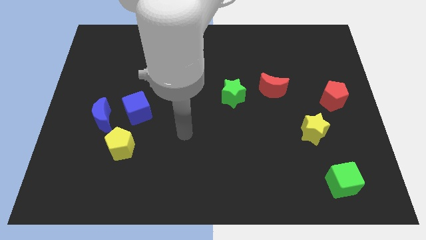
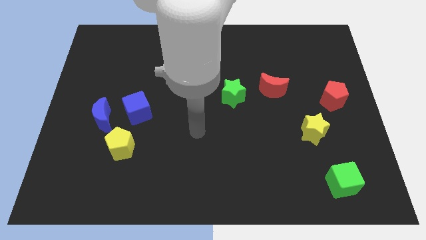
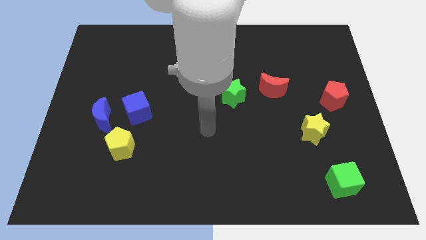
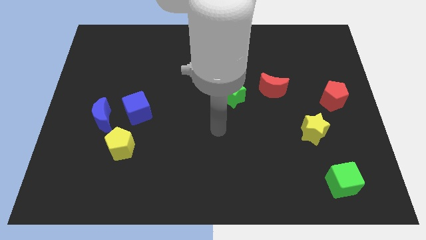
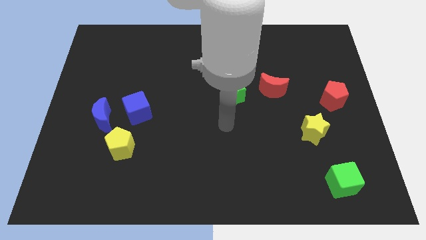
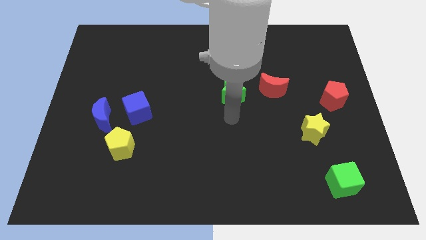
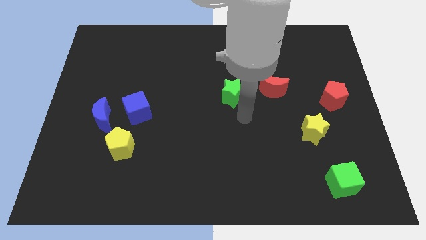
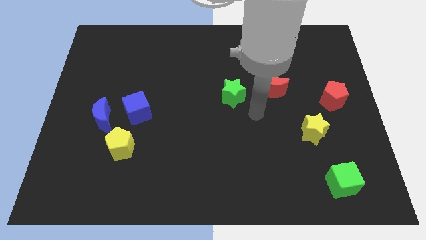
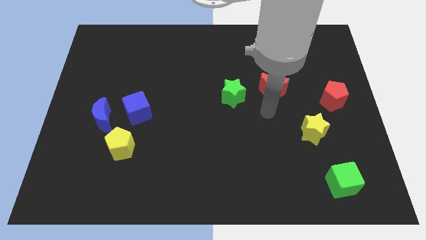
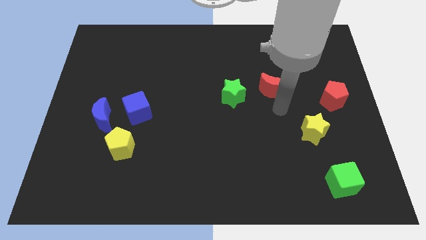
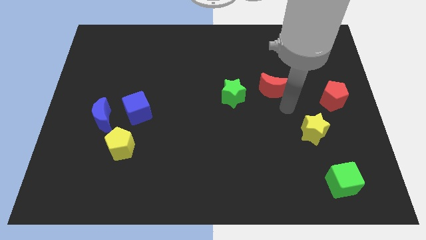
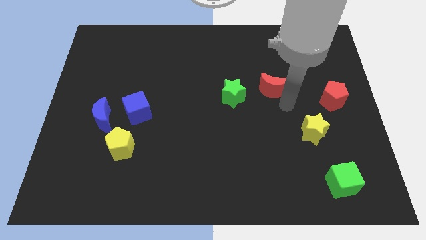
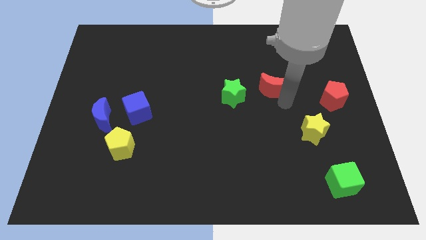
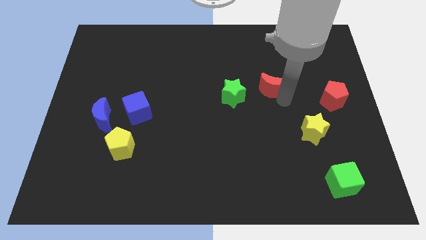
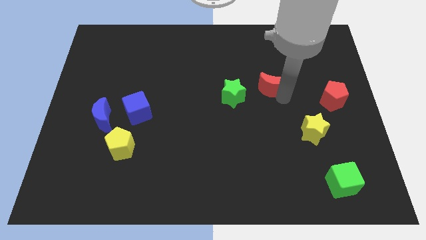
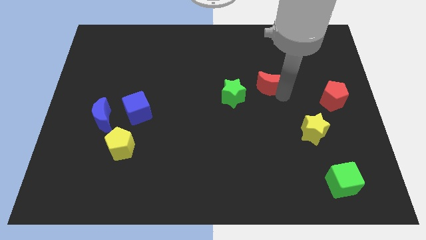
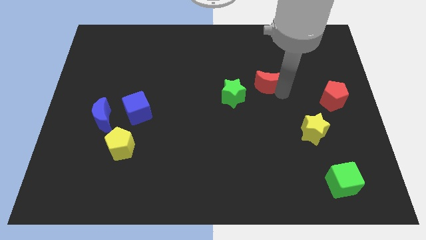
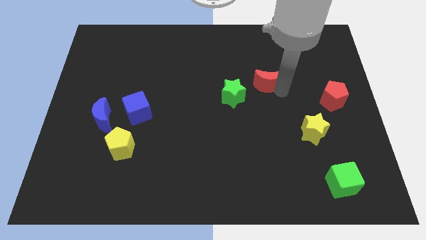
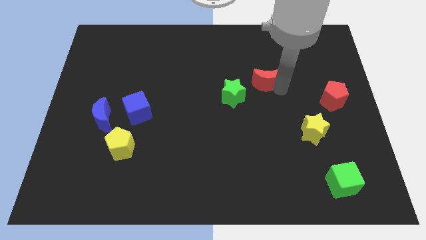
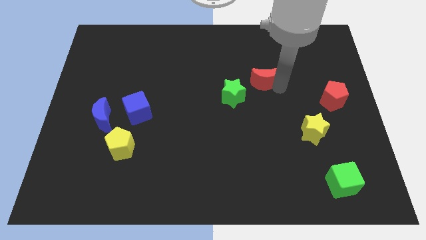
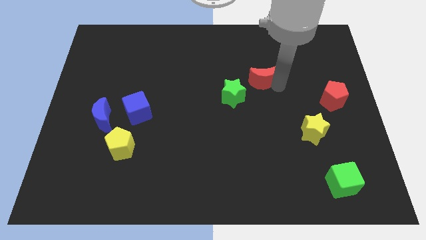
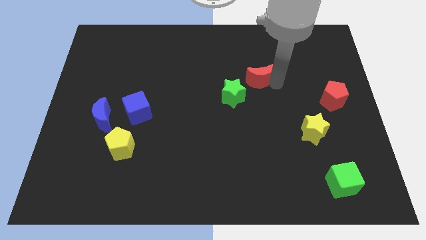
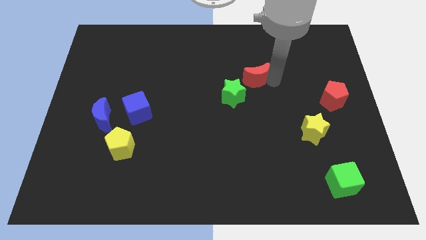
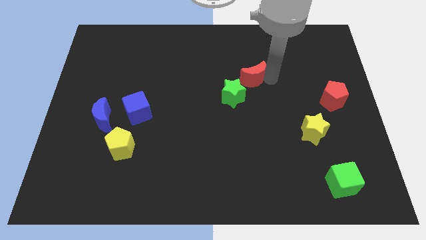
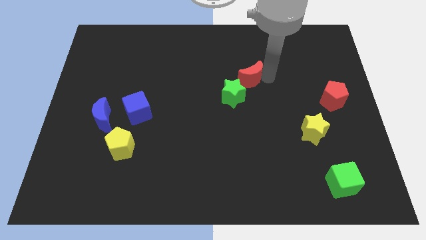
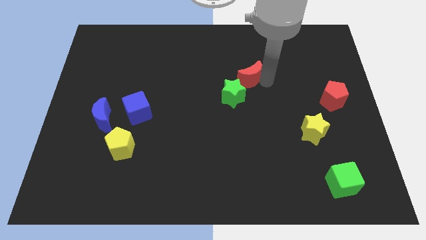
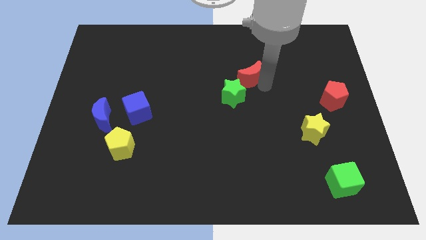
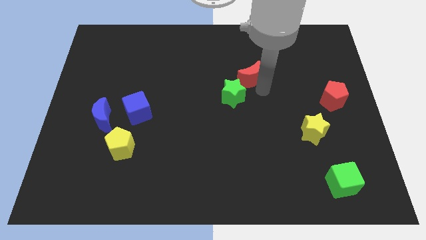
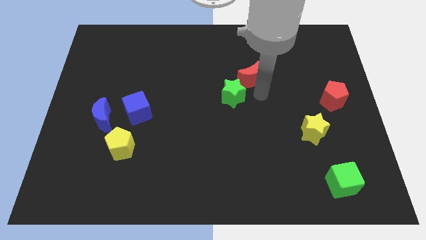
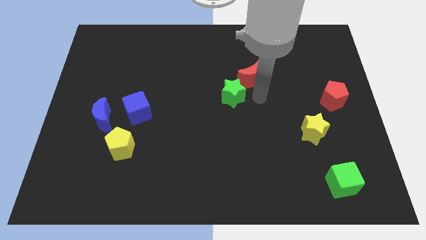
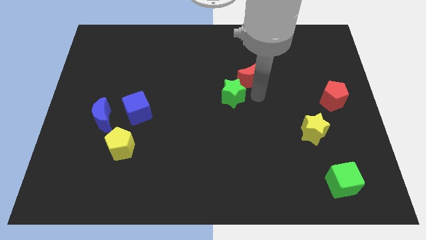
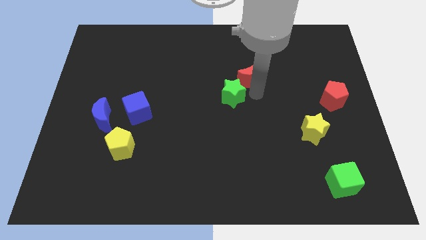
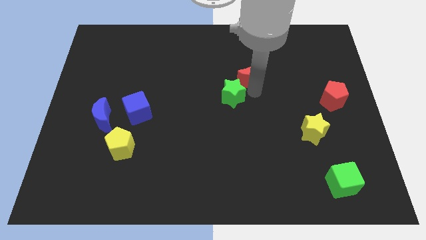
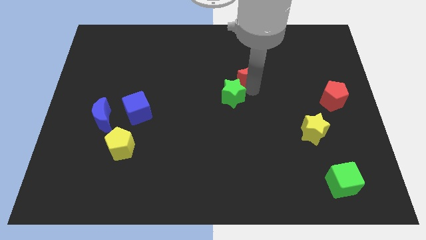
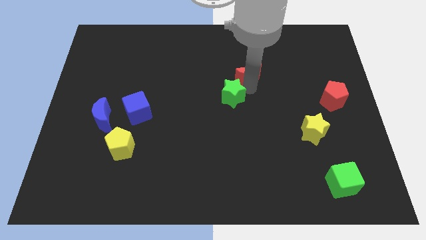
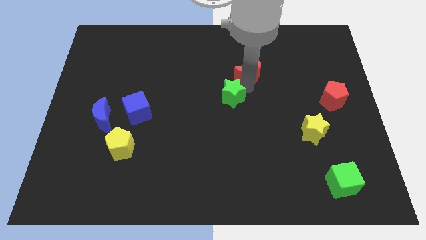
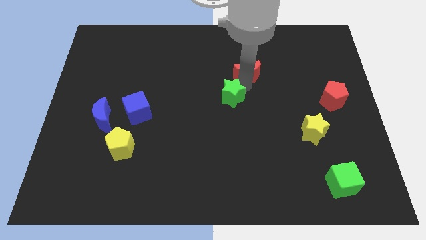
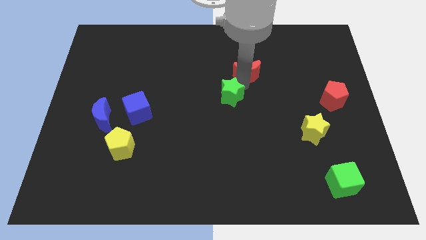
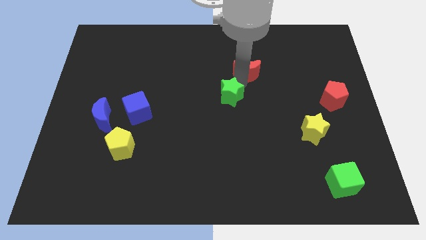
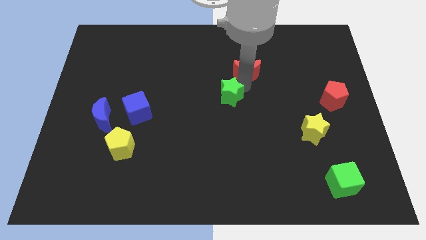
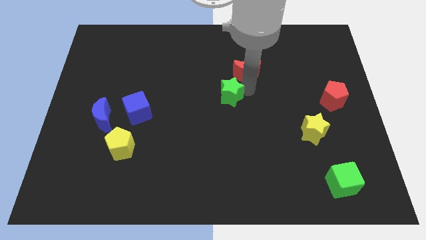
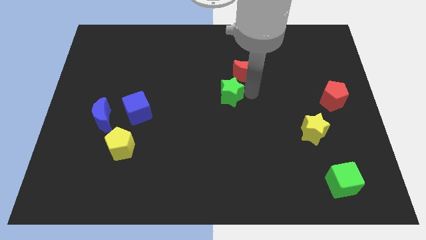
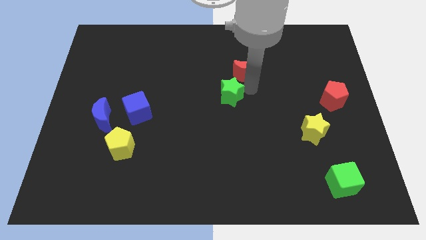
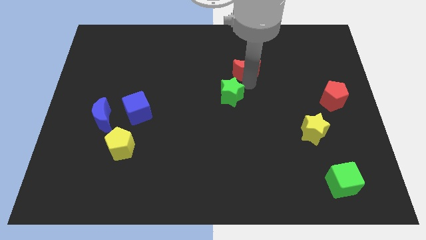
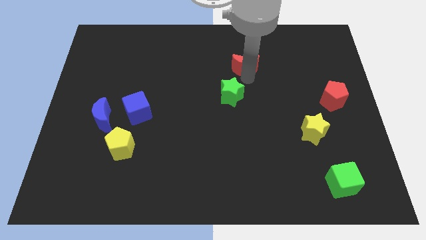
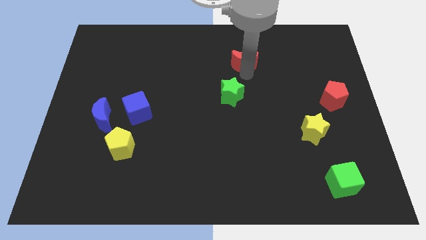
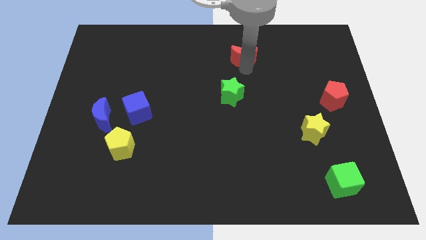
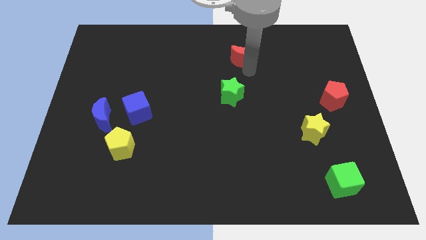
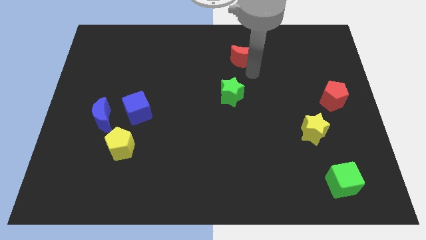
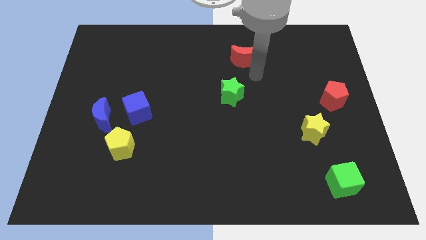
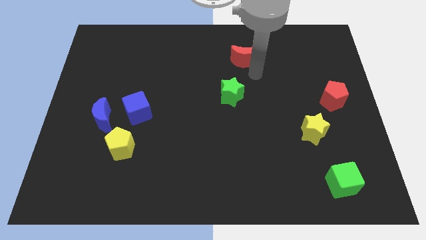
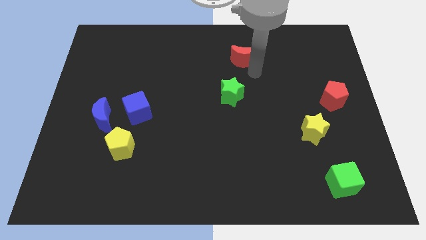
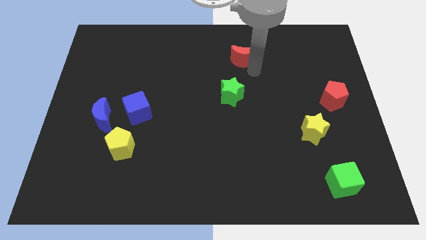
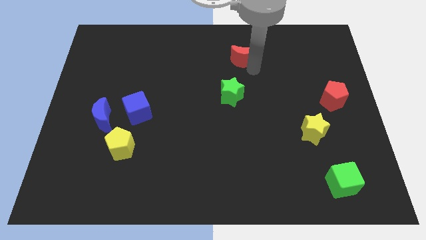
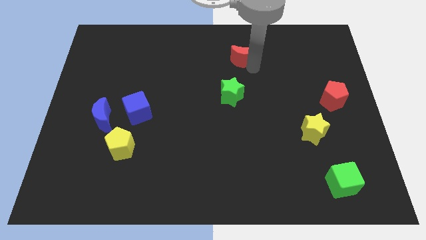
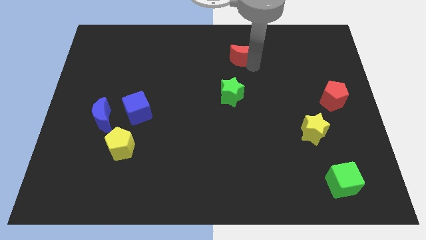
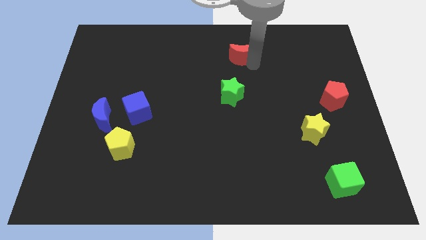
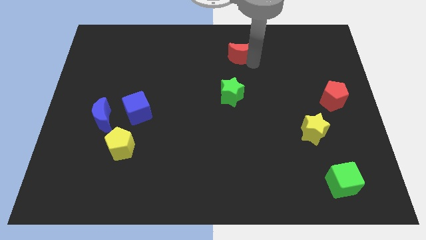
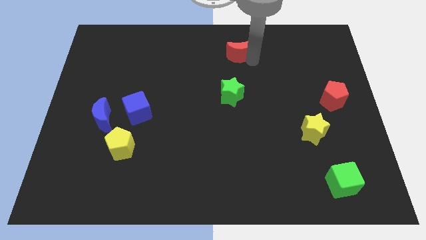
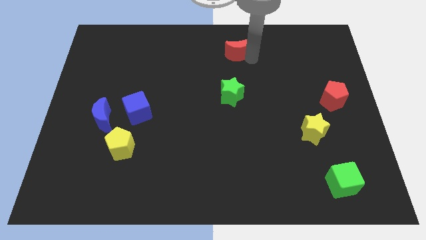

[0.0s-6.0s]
slide the red moon to the top side
